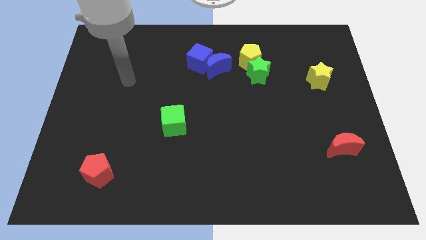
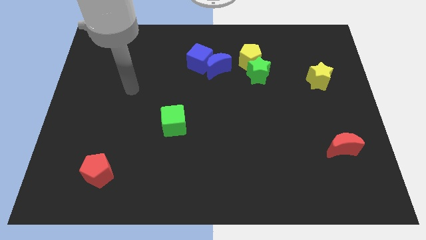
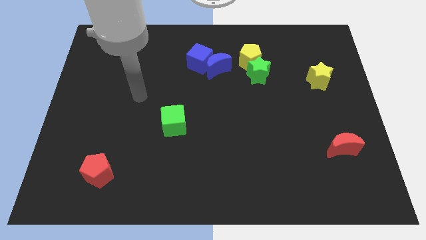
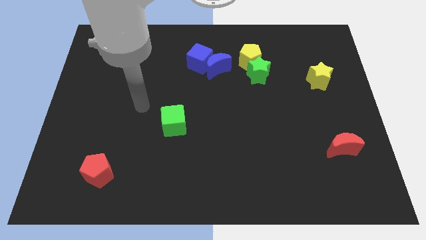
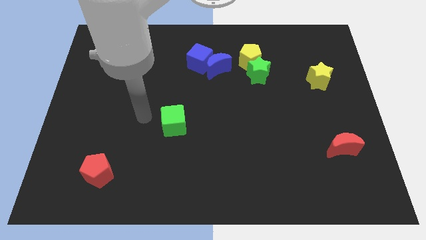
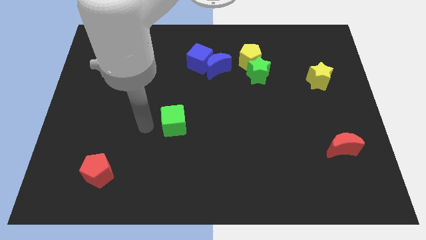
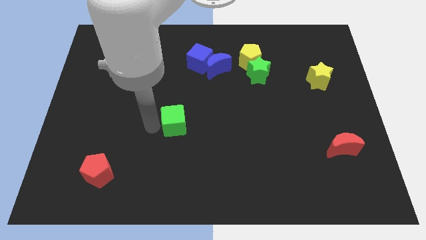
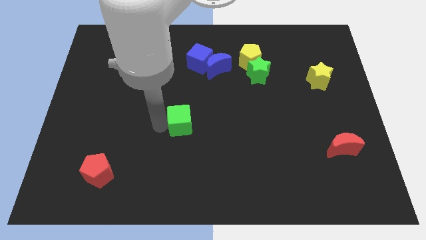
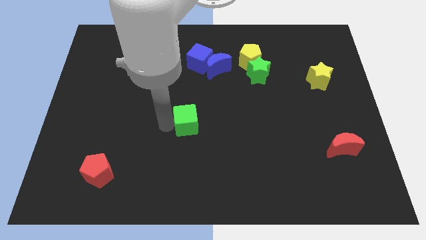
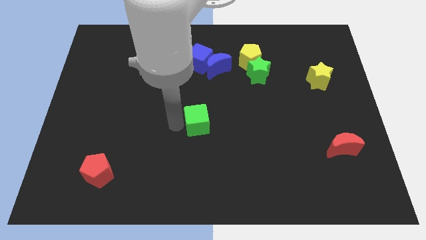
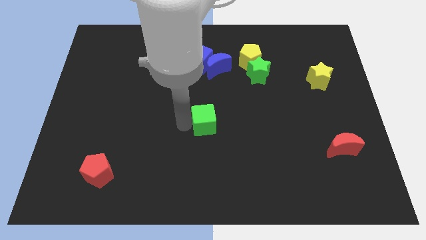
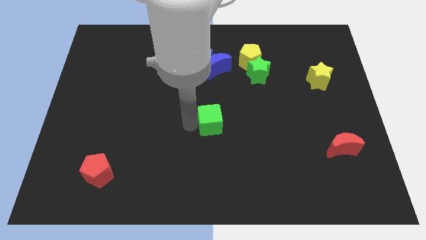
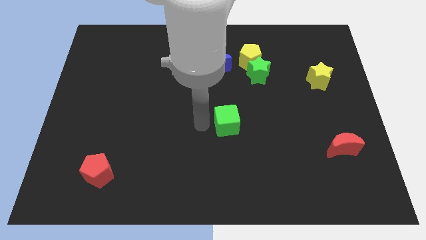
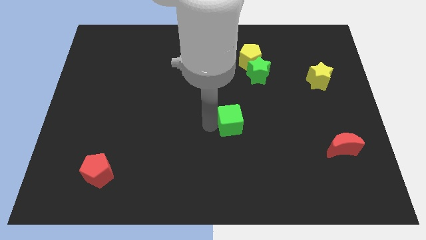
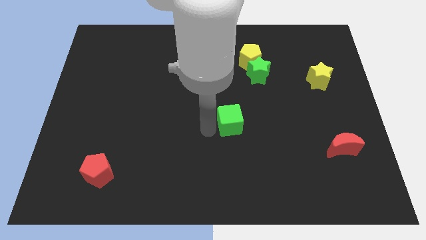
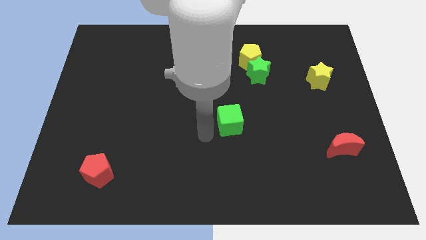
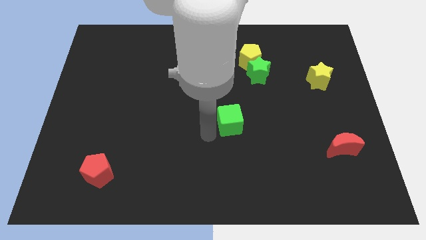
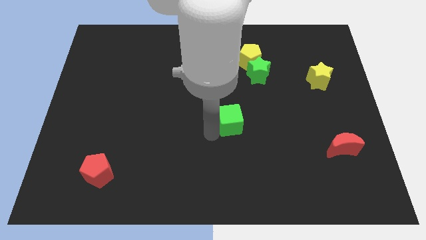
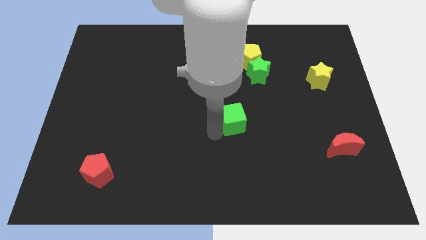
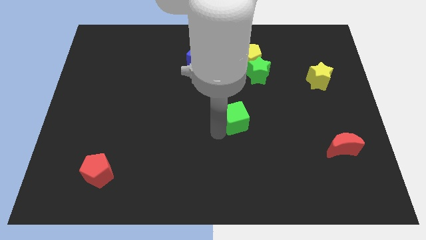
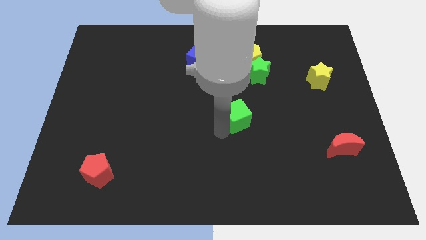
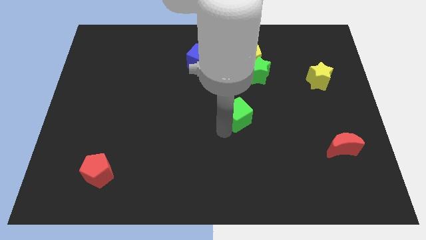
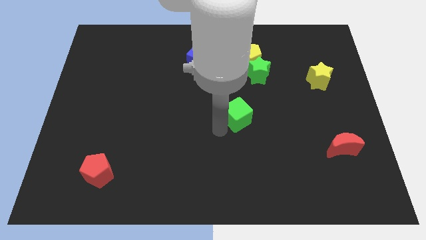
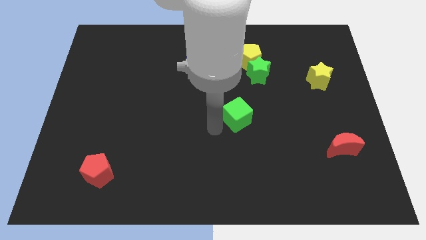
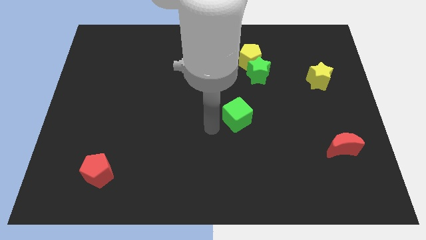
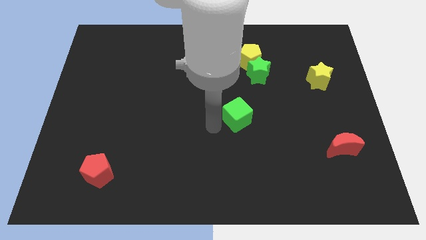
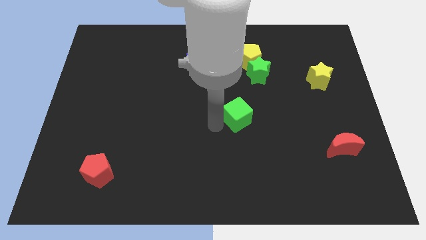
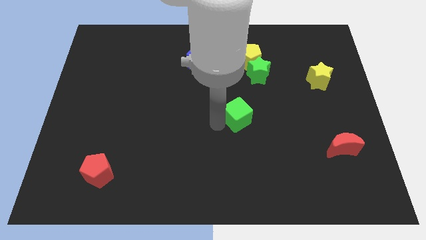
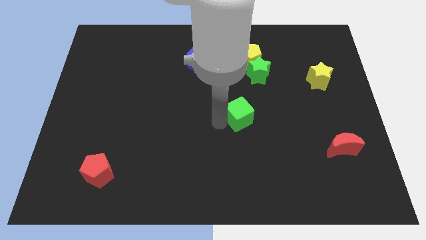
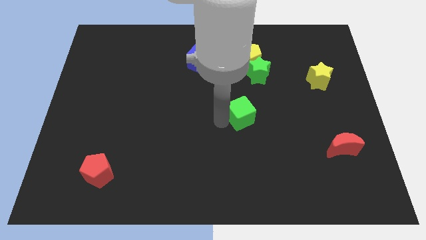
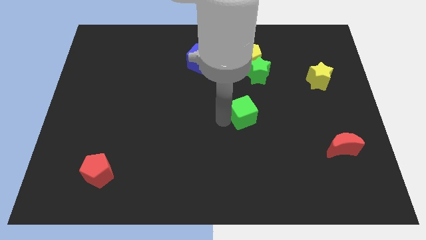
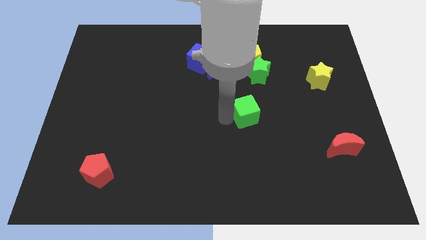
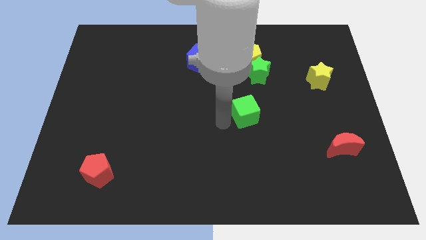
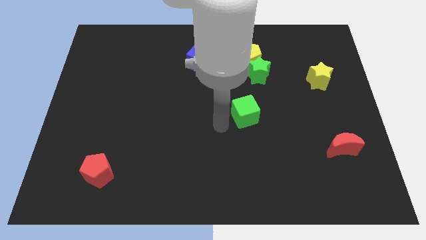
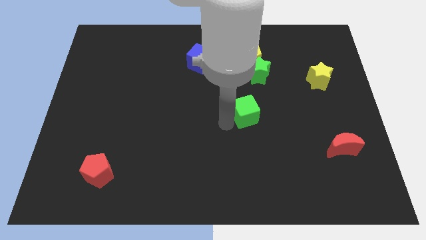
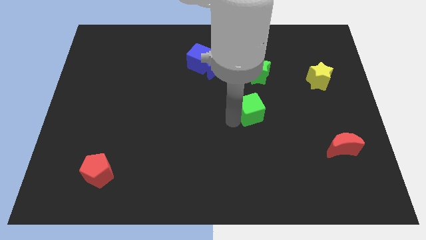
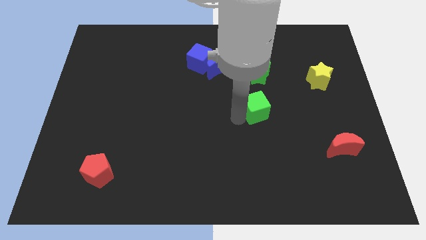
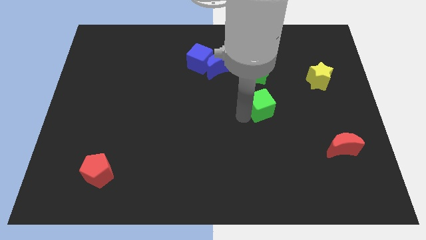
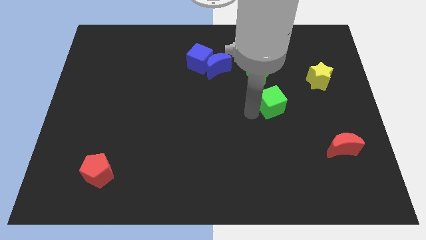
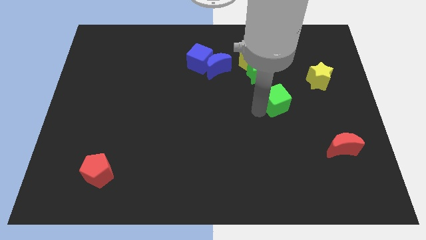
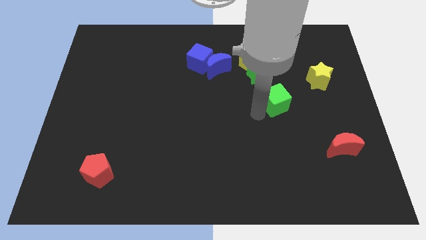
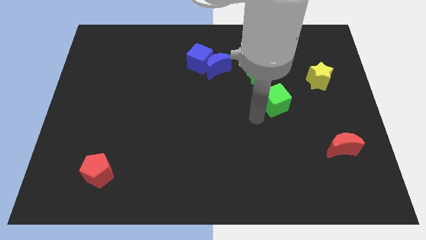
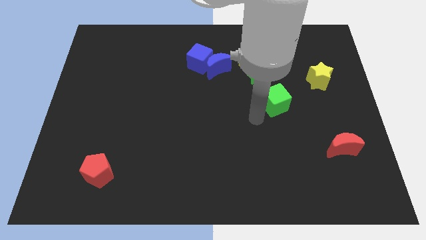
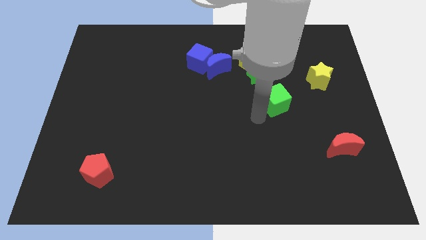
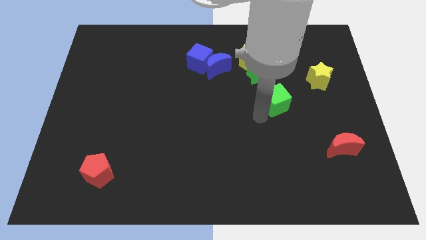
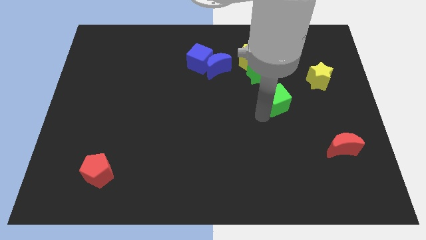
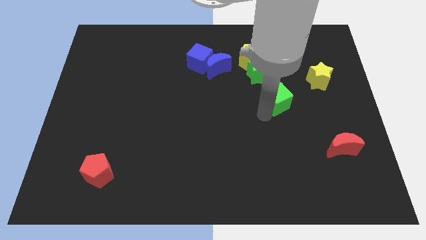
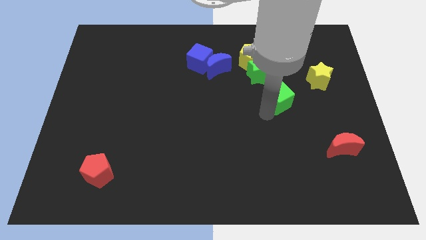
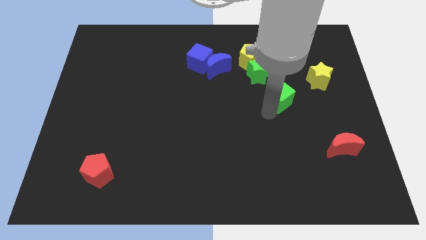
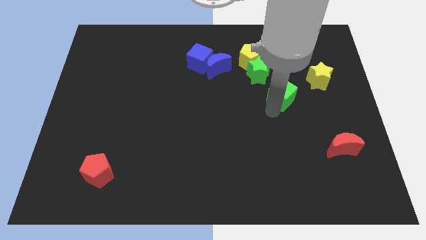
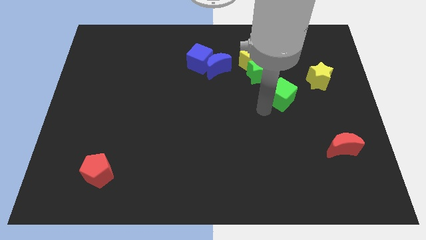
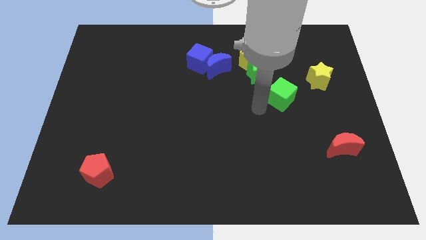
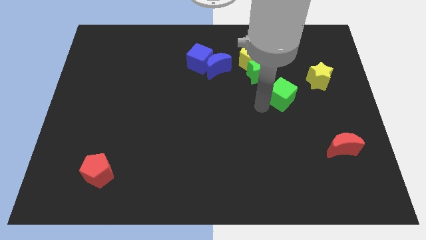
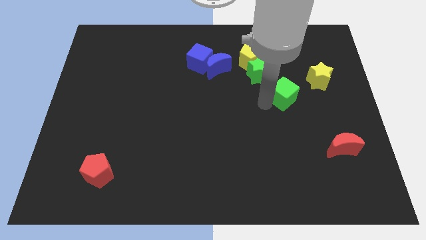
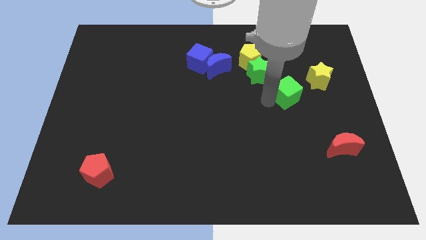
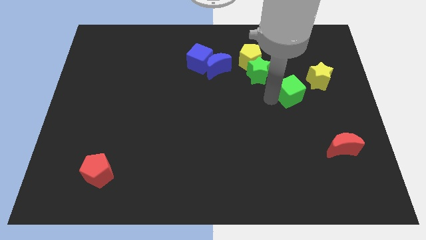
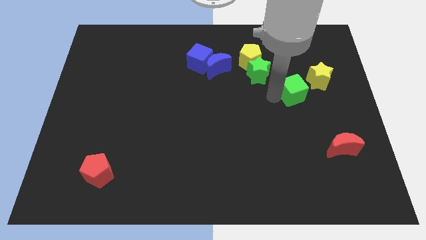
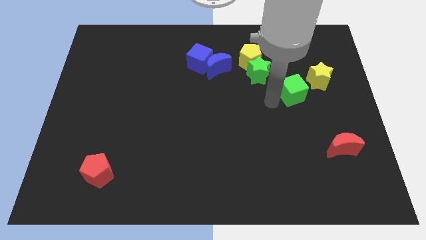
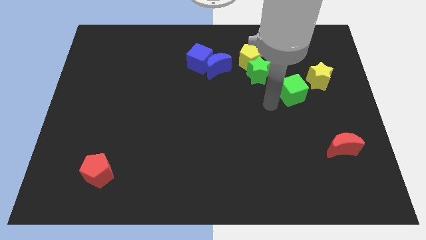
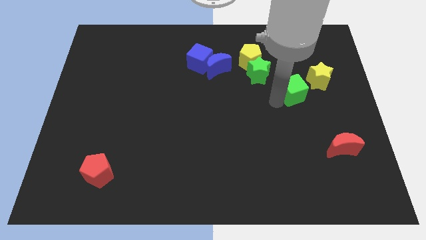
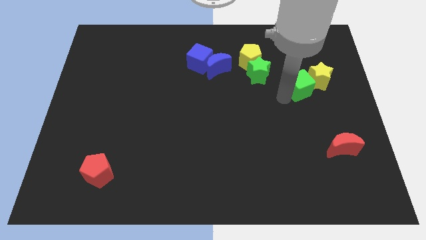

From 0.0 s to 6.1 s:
slide the green cube next to the yellow star
